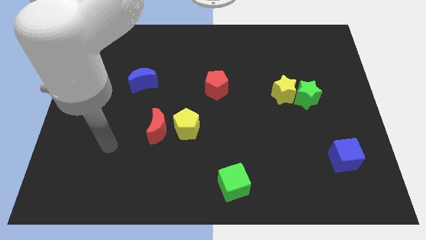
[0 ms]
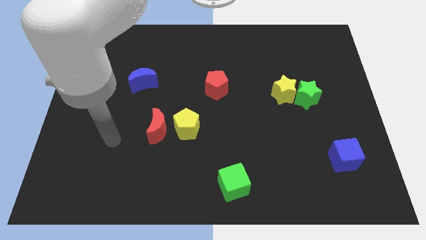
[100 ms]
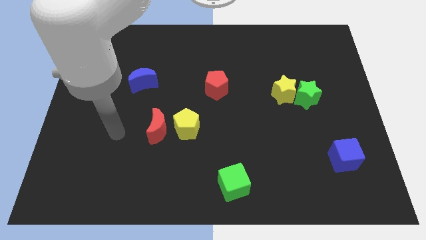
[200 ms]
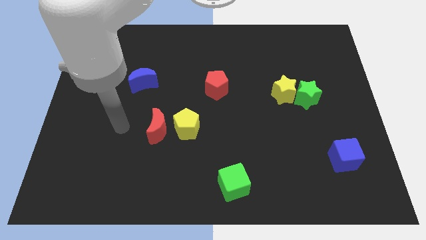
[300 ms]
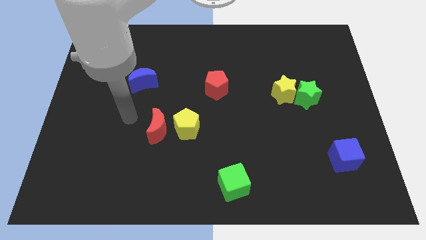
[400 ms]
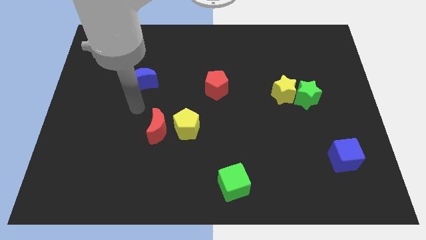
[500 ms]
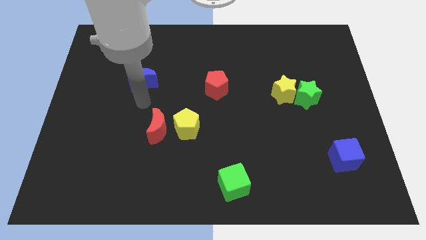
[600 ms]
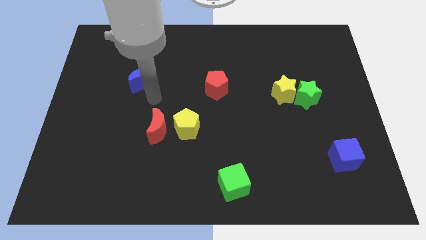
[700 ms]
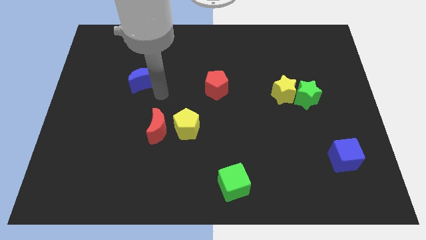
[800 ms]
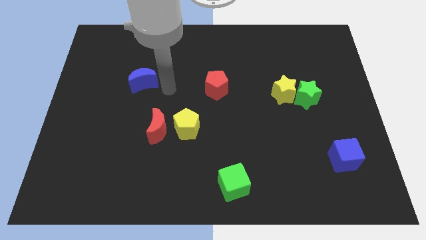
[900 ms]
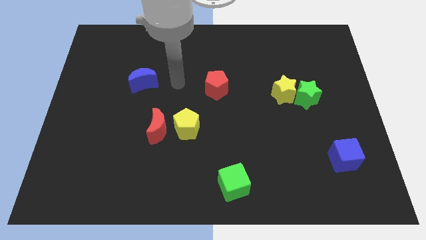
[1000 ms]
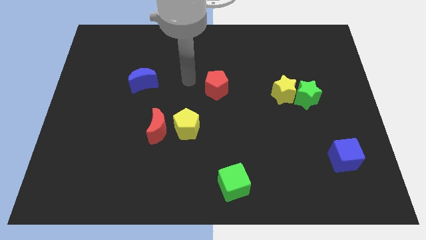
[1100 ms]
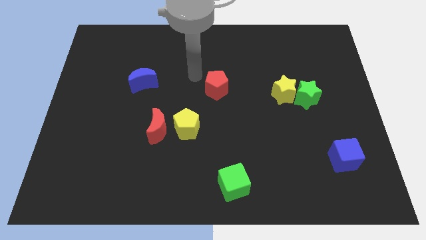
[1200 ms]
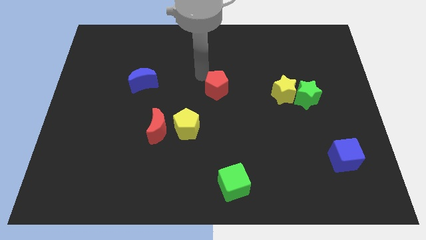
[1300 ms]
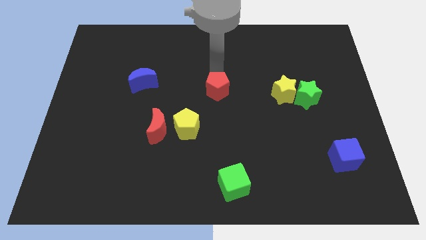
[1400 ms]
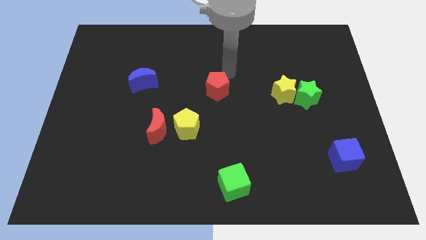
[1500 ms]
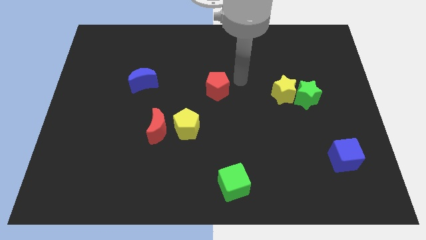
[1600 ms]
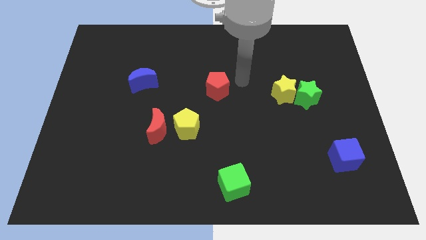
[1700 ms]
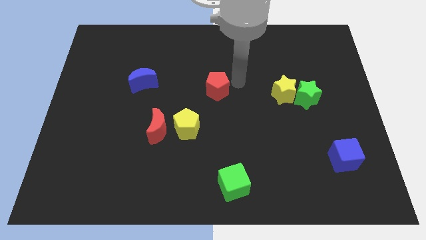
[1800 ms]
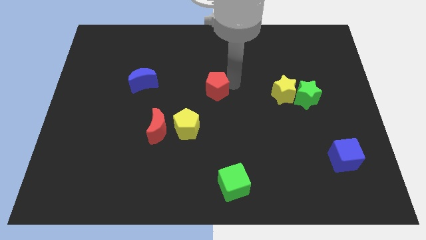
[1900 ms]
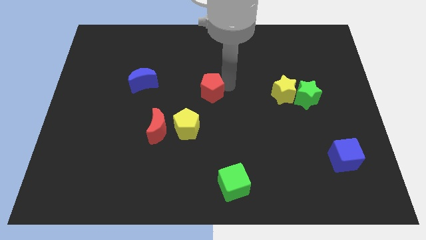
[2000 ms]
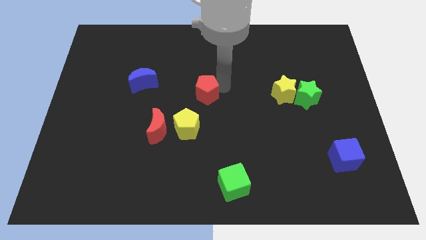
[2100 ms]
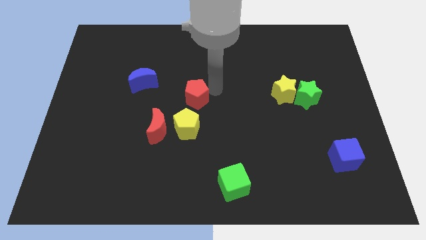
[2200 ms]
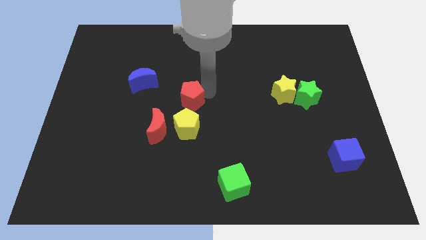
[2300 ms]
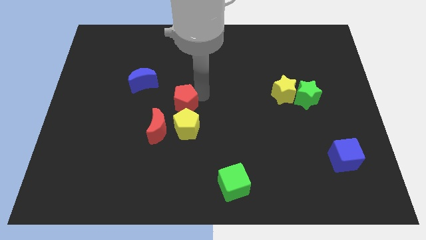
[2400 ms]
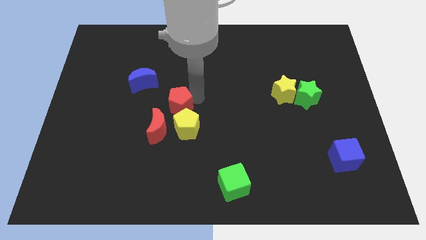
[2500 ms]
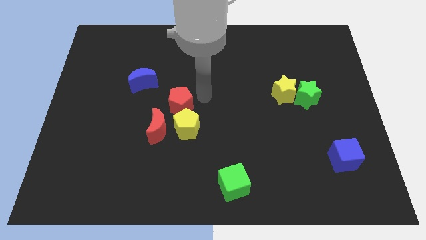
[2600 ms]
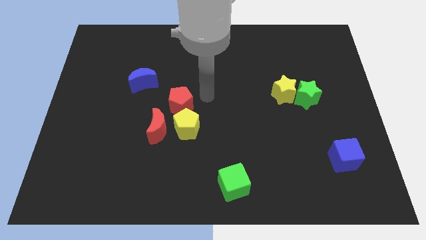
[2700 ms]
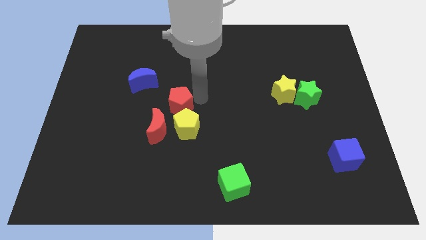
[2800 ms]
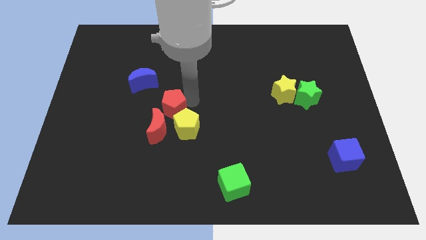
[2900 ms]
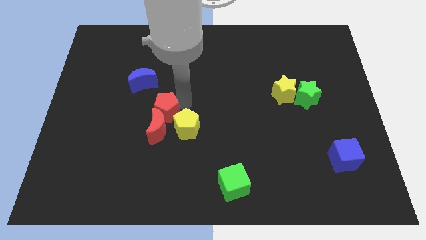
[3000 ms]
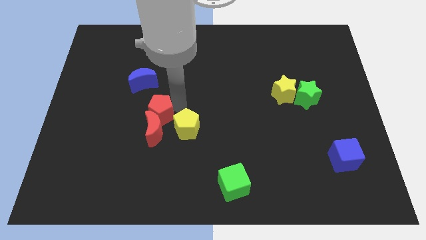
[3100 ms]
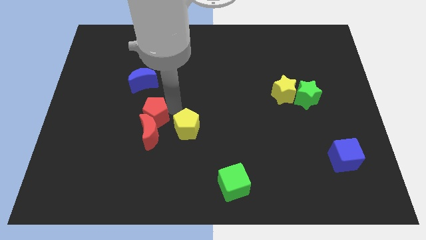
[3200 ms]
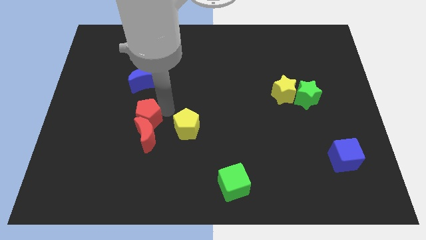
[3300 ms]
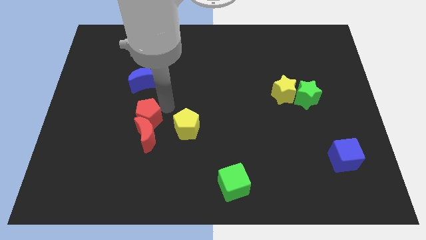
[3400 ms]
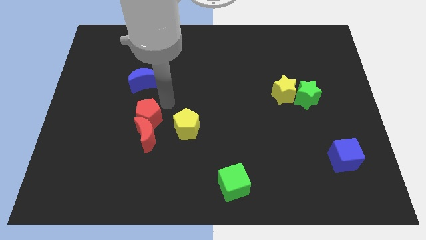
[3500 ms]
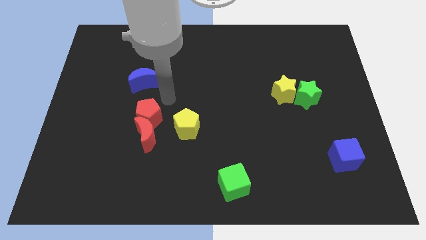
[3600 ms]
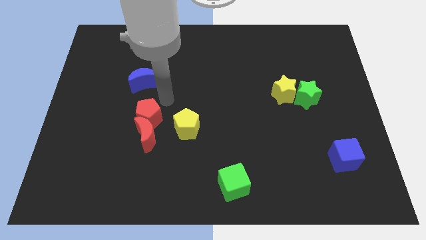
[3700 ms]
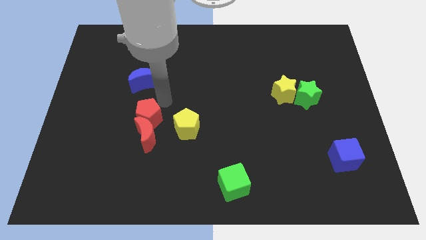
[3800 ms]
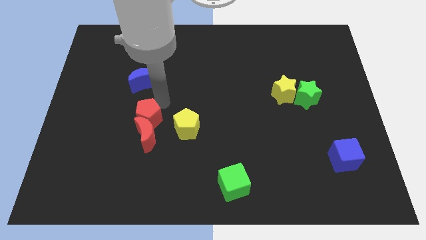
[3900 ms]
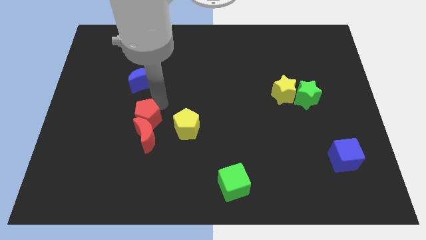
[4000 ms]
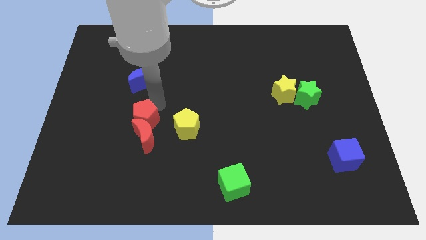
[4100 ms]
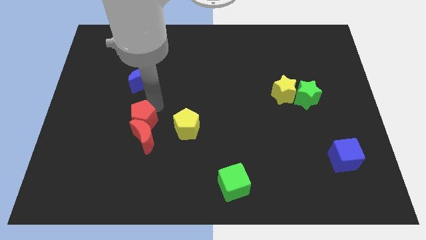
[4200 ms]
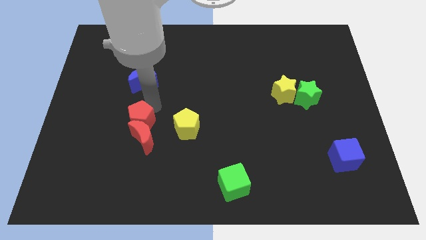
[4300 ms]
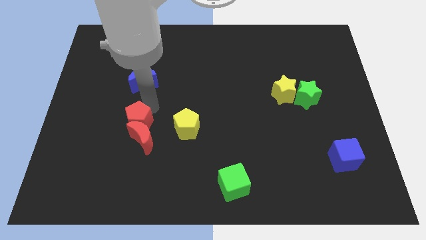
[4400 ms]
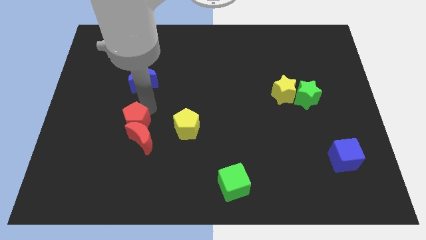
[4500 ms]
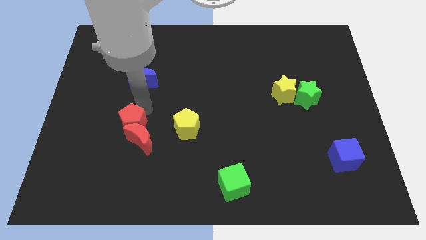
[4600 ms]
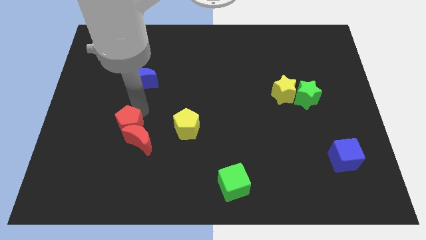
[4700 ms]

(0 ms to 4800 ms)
push the red pentagon down and left

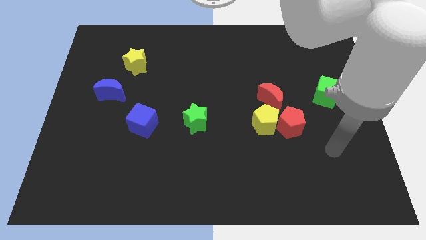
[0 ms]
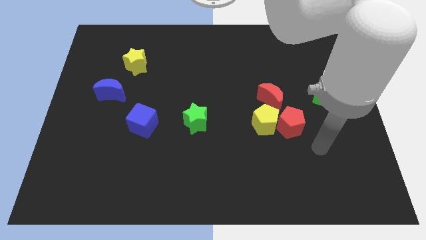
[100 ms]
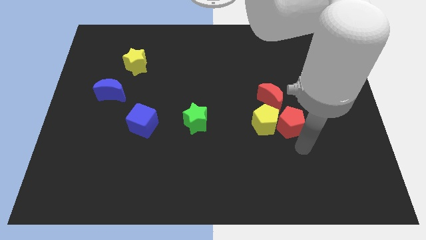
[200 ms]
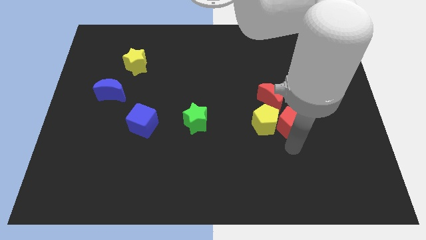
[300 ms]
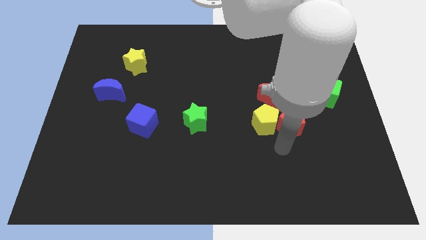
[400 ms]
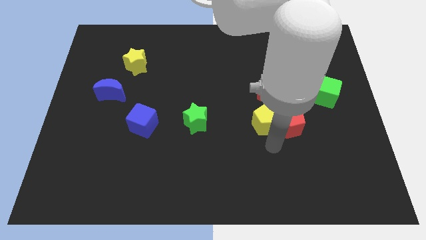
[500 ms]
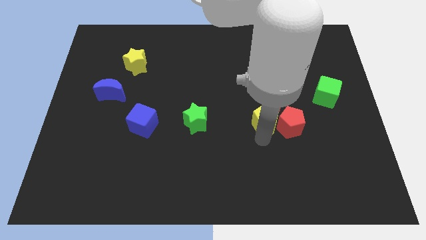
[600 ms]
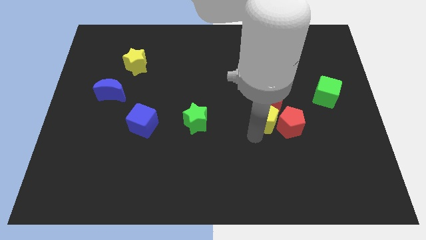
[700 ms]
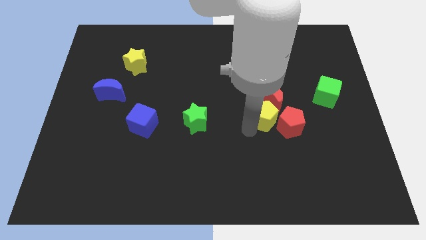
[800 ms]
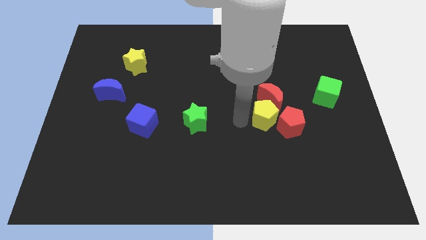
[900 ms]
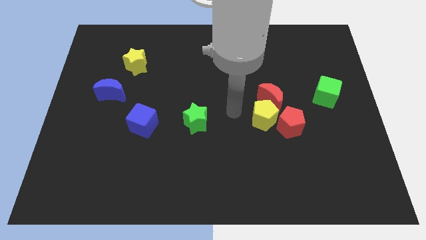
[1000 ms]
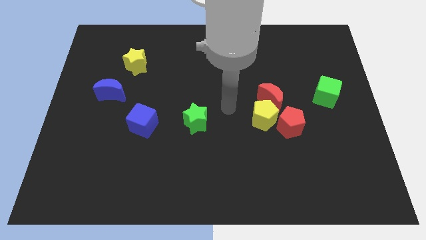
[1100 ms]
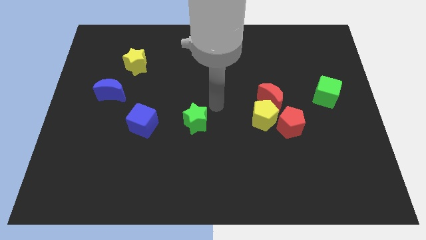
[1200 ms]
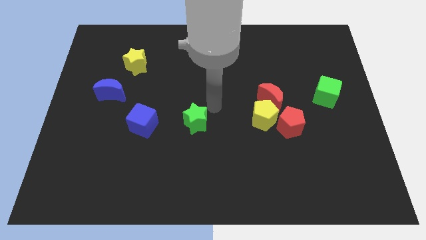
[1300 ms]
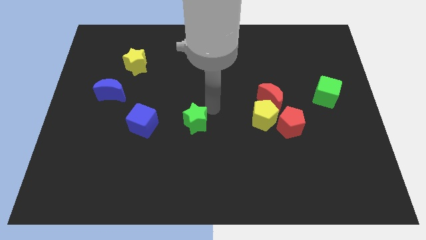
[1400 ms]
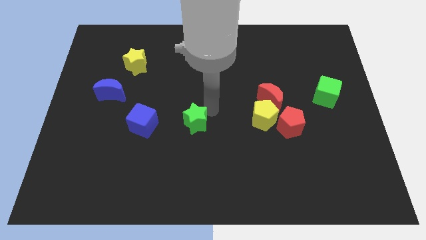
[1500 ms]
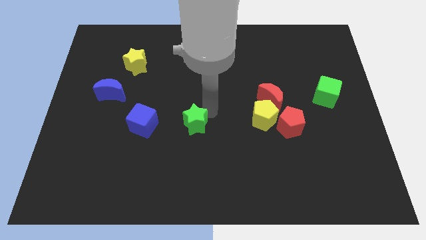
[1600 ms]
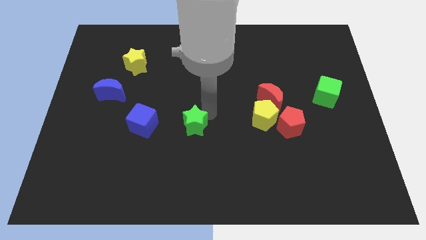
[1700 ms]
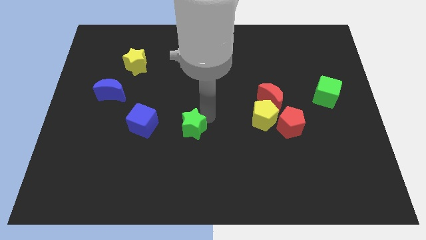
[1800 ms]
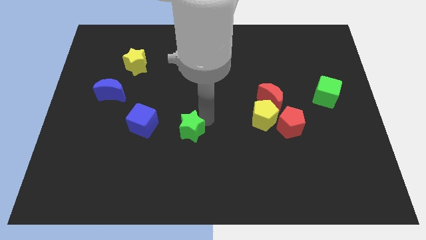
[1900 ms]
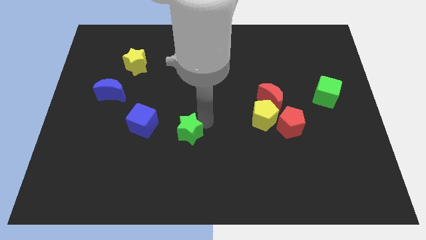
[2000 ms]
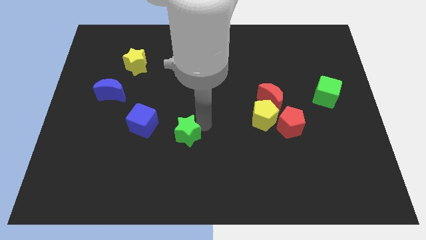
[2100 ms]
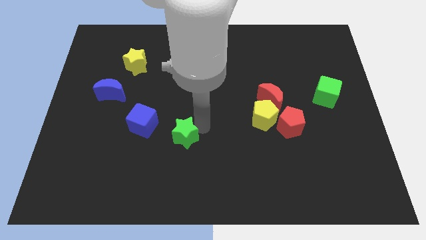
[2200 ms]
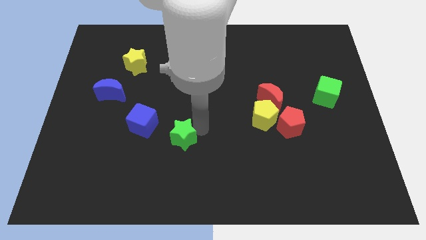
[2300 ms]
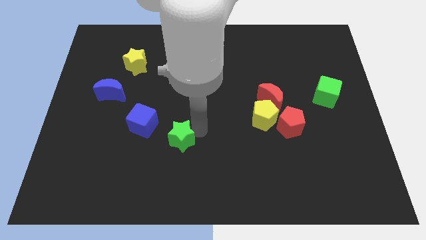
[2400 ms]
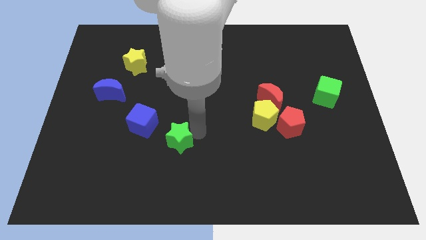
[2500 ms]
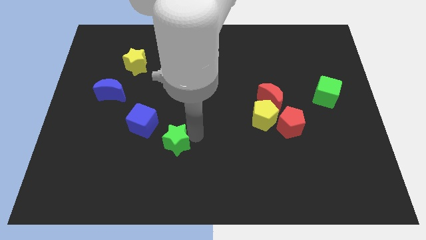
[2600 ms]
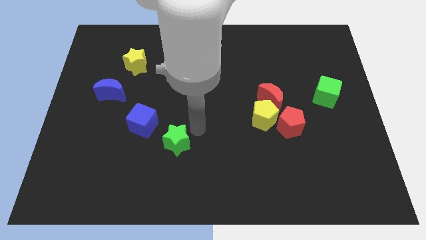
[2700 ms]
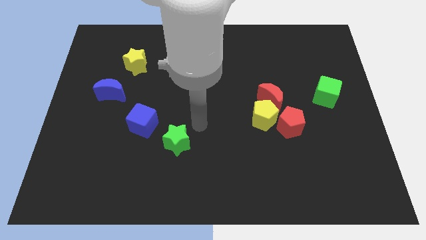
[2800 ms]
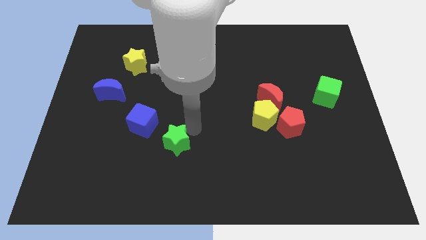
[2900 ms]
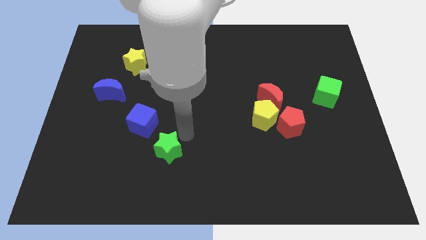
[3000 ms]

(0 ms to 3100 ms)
slightly push the green star downwards and then left

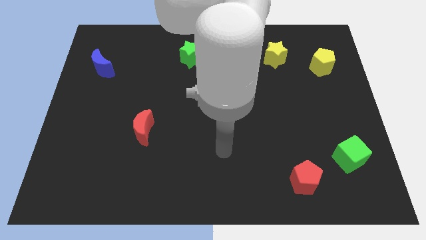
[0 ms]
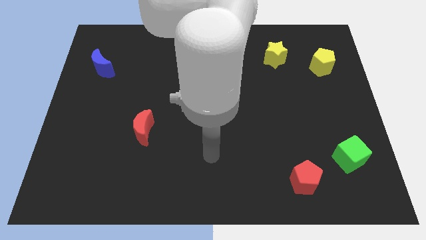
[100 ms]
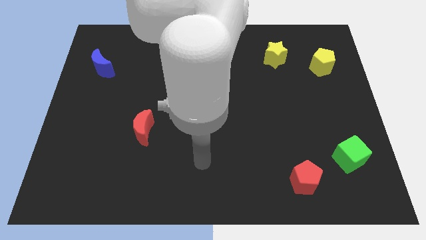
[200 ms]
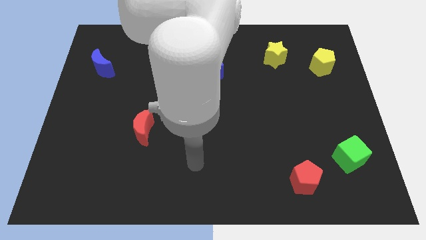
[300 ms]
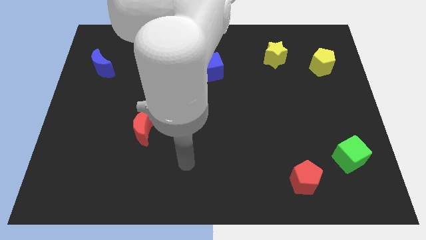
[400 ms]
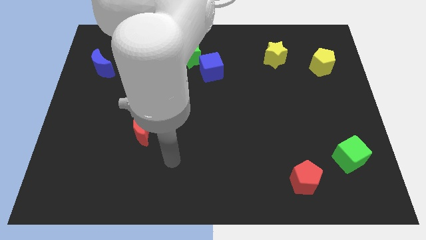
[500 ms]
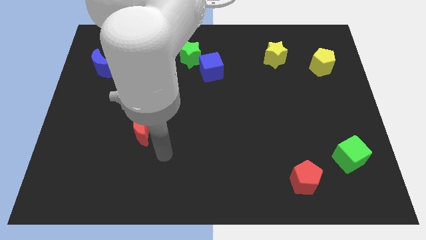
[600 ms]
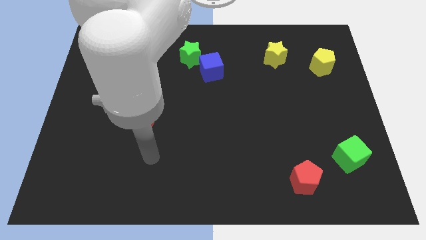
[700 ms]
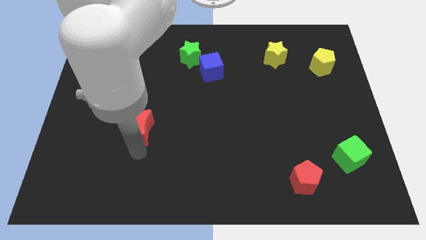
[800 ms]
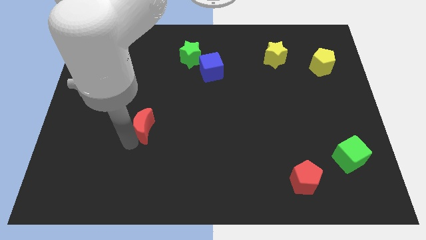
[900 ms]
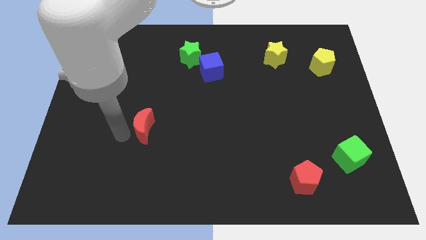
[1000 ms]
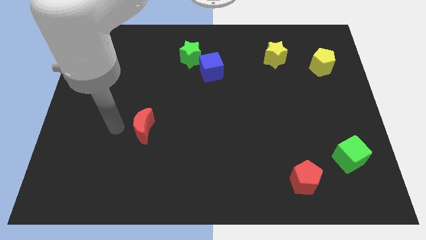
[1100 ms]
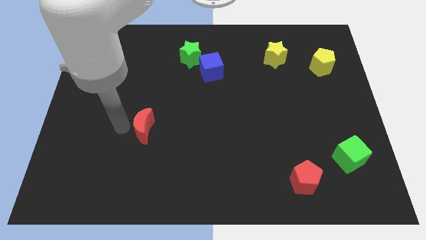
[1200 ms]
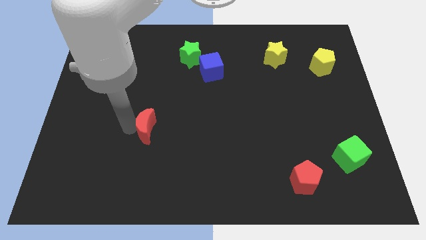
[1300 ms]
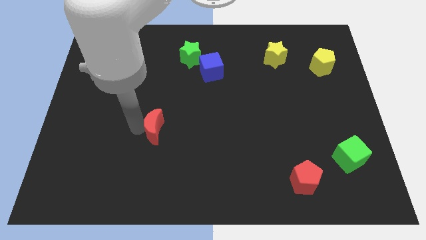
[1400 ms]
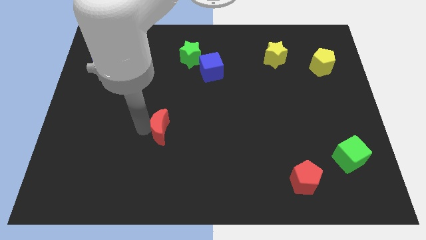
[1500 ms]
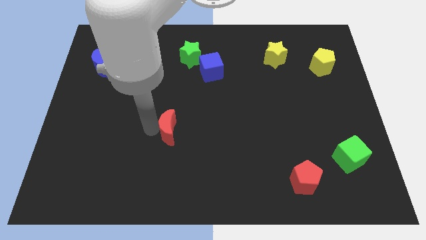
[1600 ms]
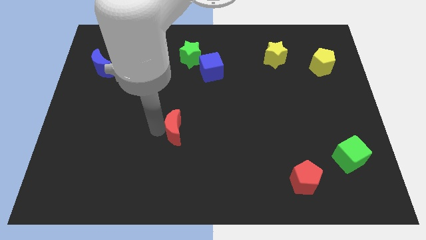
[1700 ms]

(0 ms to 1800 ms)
move the red moon a little to the right
